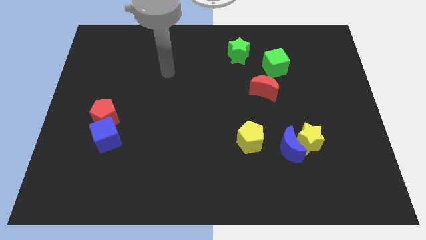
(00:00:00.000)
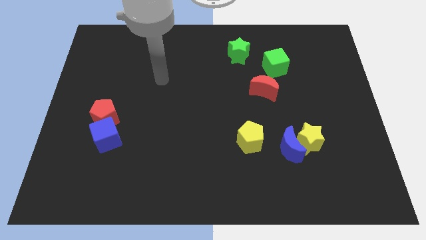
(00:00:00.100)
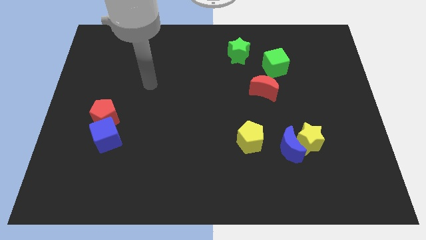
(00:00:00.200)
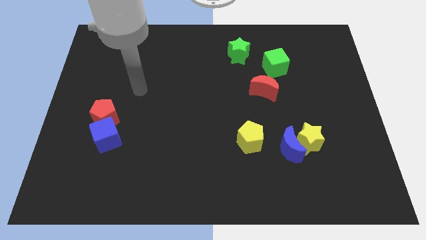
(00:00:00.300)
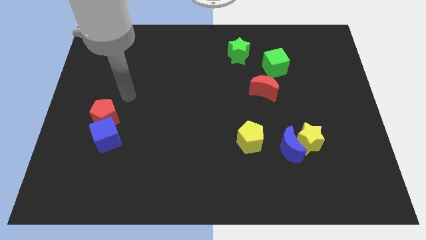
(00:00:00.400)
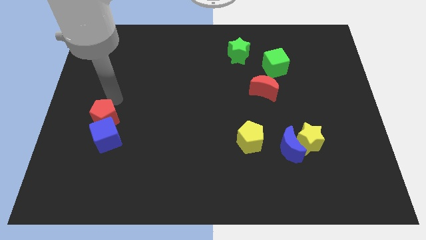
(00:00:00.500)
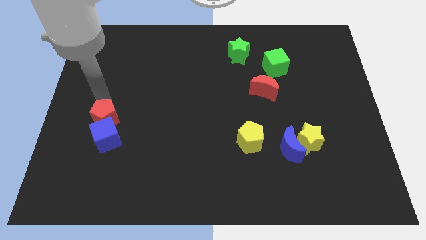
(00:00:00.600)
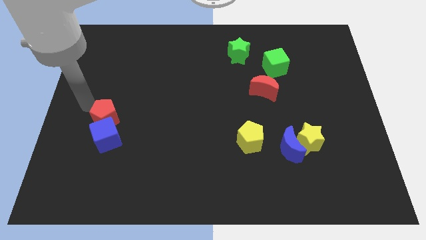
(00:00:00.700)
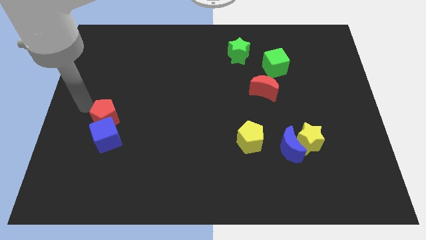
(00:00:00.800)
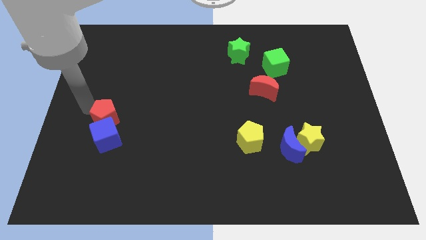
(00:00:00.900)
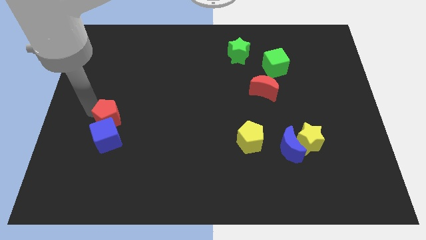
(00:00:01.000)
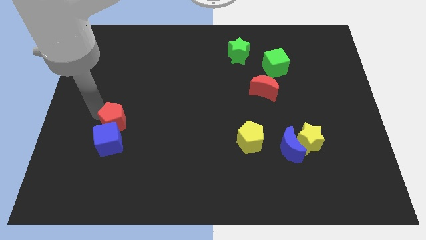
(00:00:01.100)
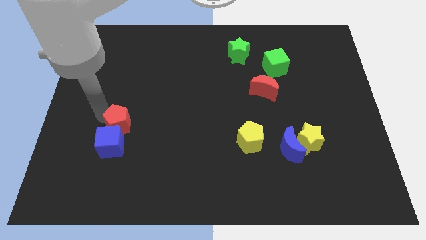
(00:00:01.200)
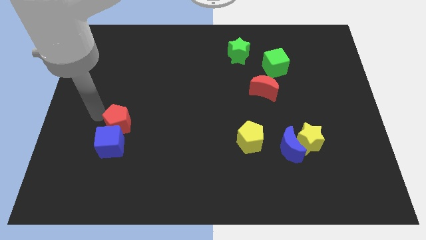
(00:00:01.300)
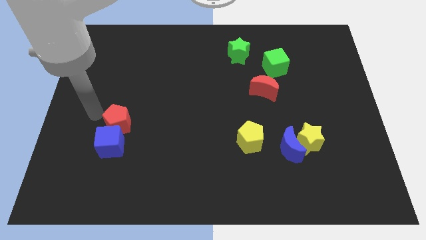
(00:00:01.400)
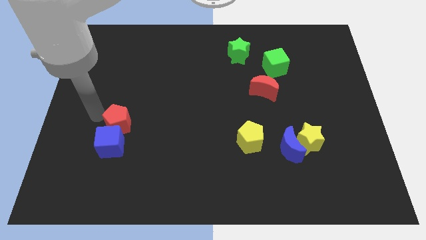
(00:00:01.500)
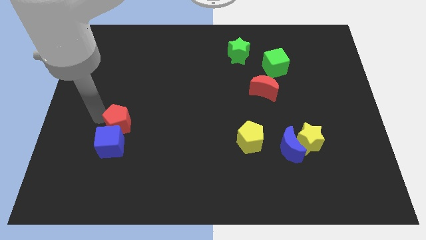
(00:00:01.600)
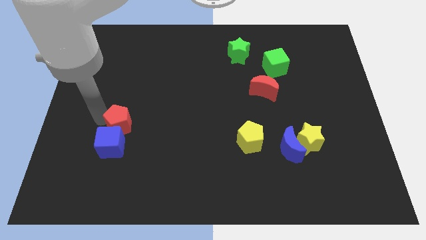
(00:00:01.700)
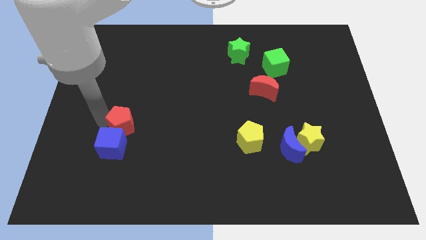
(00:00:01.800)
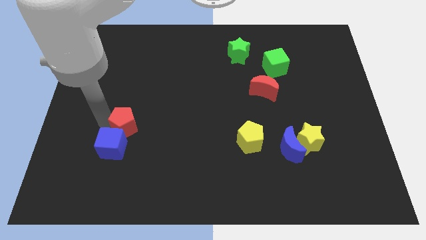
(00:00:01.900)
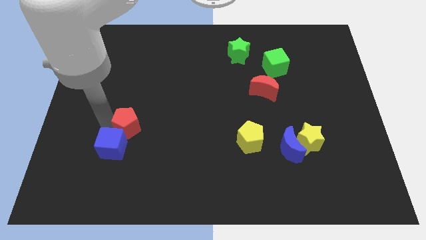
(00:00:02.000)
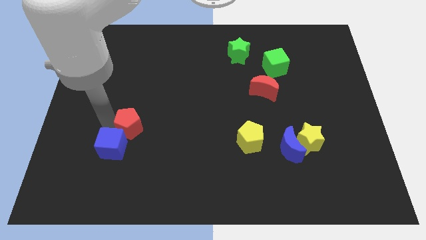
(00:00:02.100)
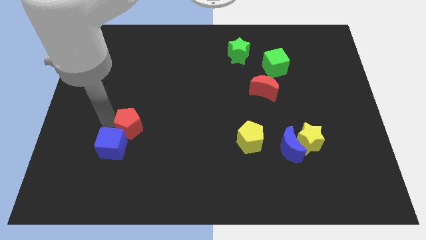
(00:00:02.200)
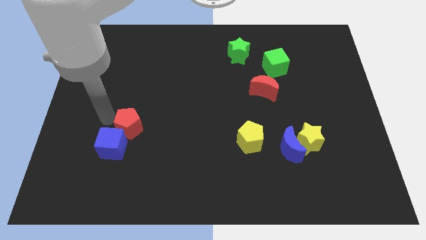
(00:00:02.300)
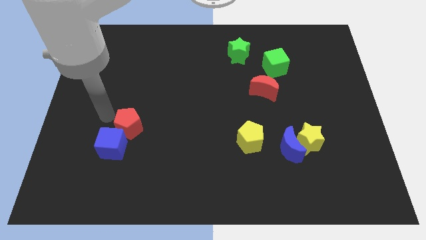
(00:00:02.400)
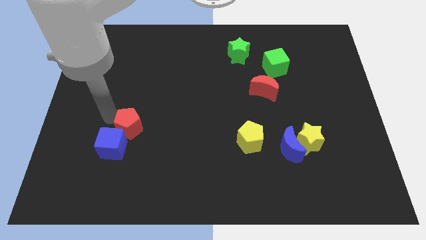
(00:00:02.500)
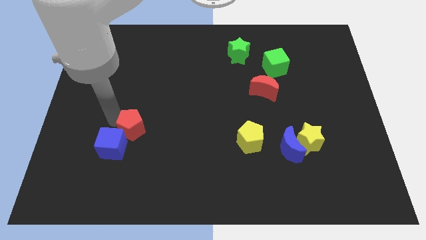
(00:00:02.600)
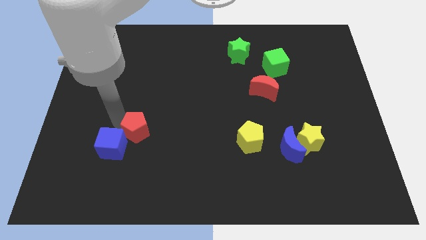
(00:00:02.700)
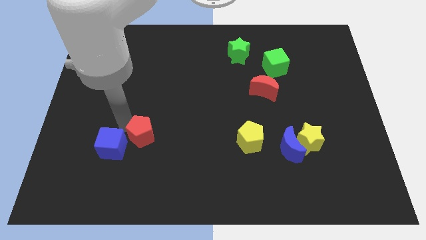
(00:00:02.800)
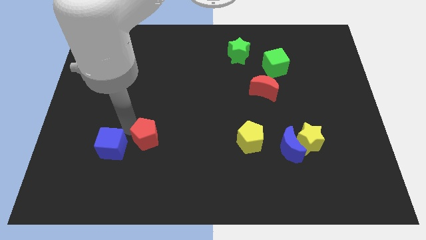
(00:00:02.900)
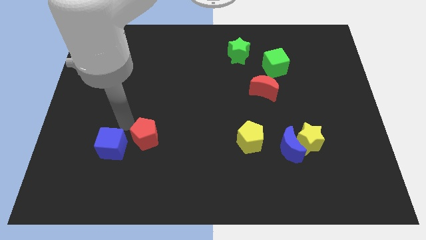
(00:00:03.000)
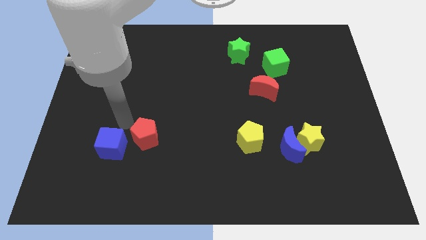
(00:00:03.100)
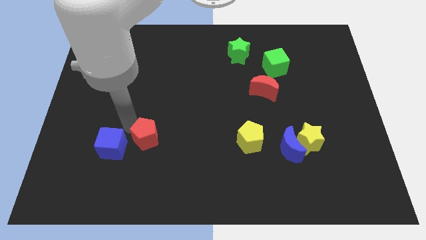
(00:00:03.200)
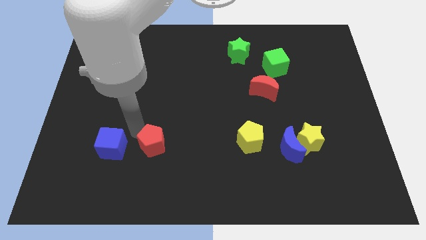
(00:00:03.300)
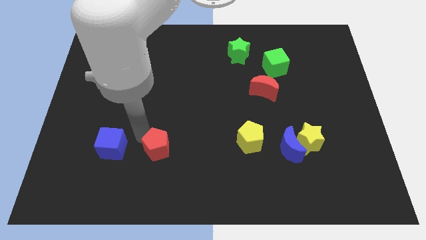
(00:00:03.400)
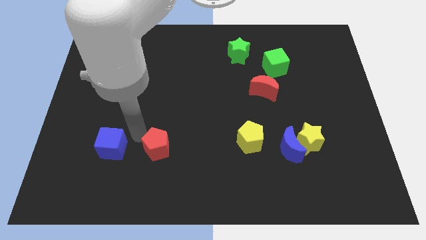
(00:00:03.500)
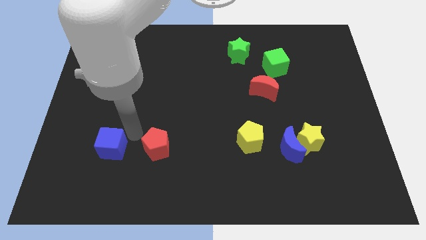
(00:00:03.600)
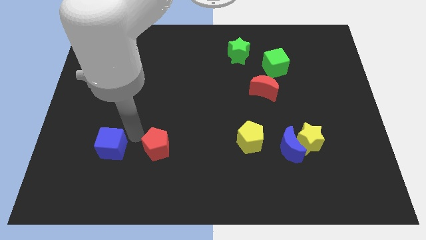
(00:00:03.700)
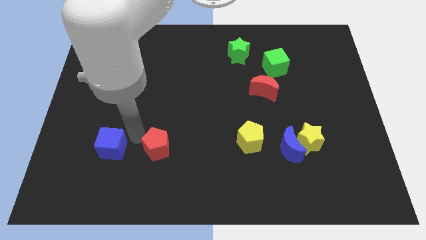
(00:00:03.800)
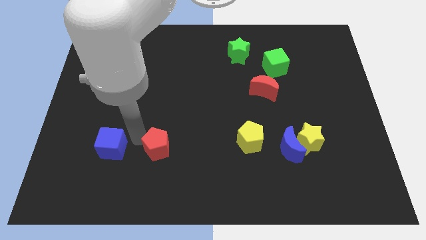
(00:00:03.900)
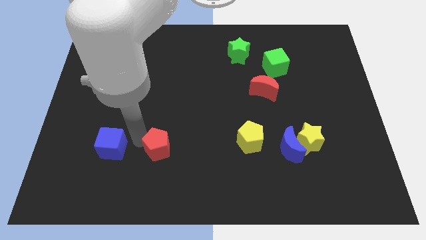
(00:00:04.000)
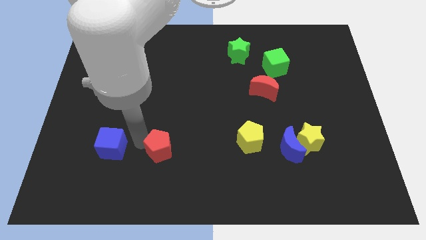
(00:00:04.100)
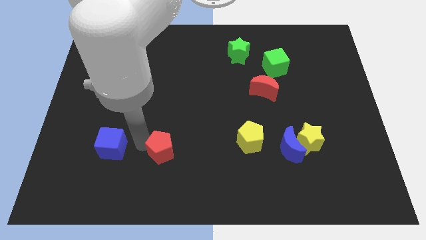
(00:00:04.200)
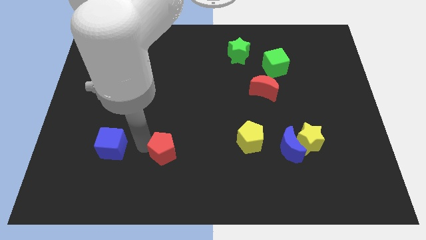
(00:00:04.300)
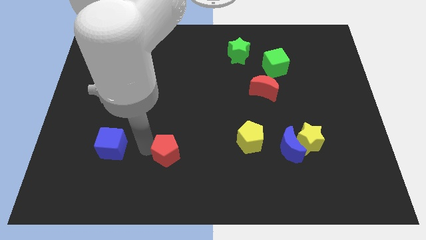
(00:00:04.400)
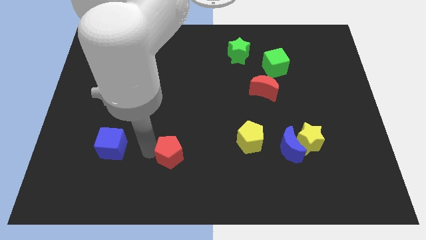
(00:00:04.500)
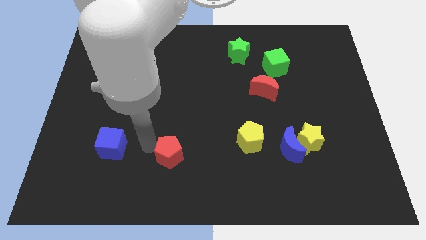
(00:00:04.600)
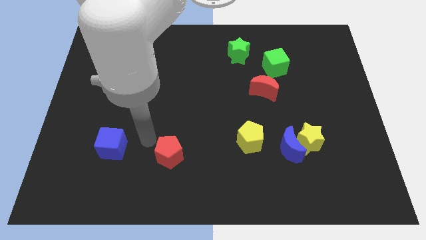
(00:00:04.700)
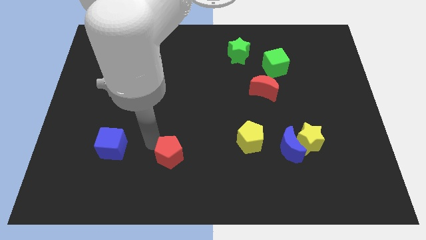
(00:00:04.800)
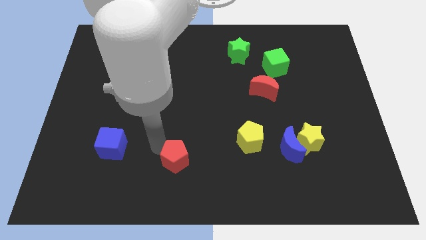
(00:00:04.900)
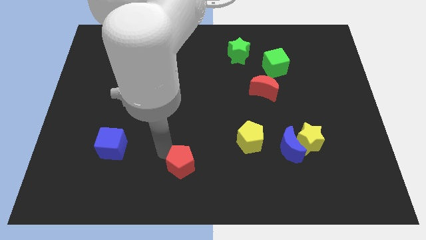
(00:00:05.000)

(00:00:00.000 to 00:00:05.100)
move the red pentagon to the bottom side

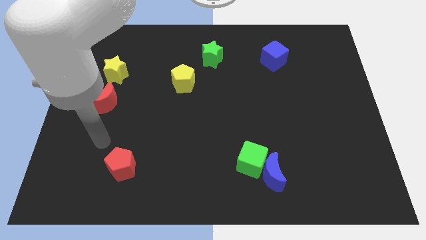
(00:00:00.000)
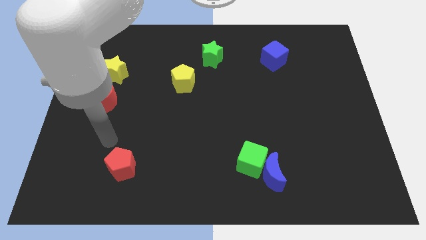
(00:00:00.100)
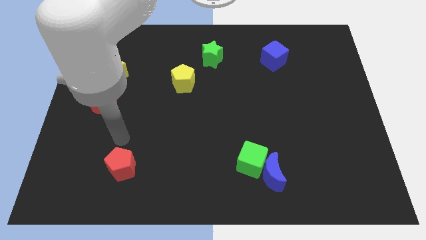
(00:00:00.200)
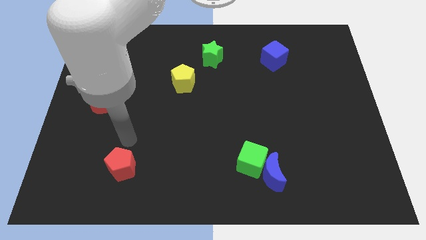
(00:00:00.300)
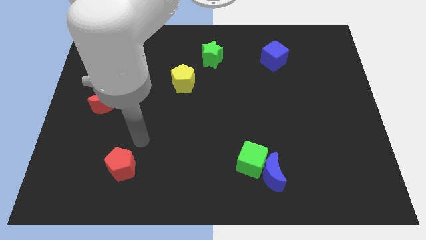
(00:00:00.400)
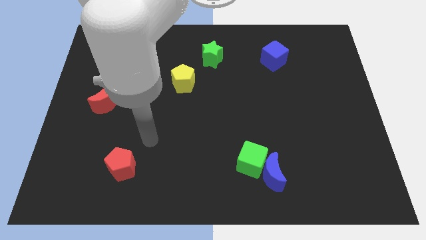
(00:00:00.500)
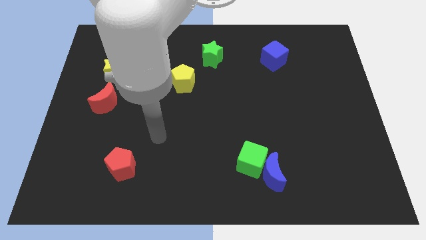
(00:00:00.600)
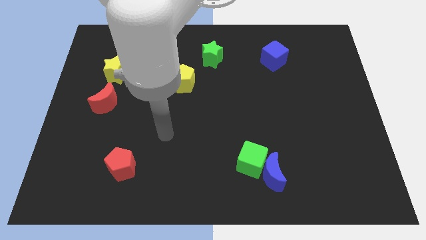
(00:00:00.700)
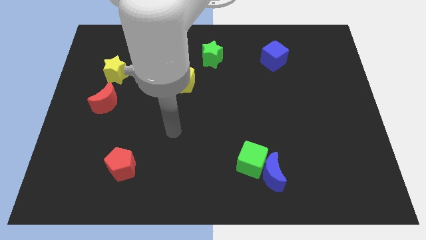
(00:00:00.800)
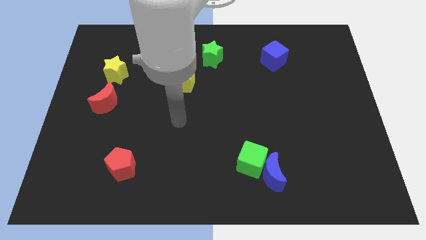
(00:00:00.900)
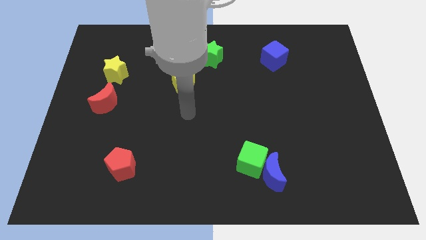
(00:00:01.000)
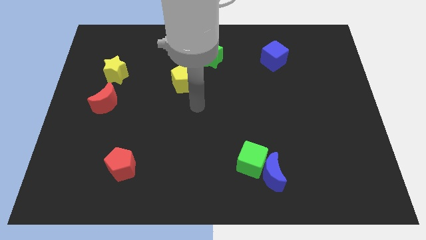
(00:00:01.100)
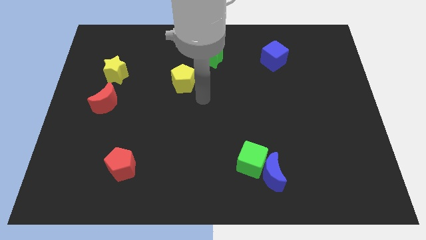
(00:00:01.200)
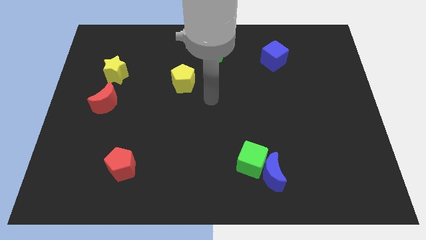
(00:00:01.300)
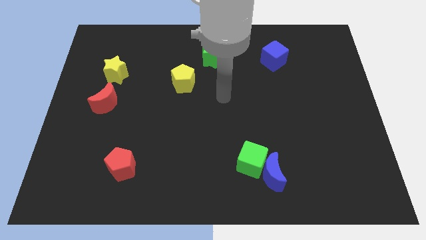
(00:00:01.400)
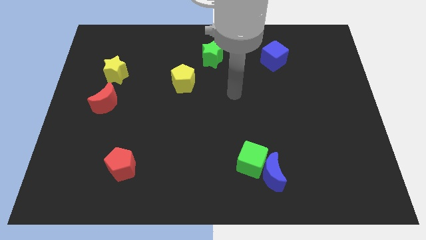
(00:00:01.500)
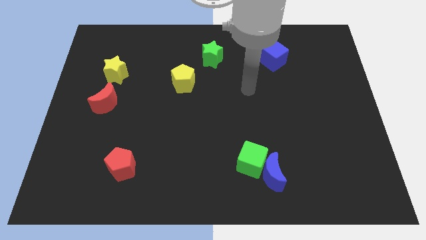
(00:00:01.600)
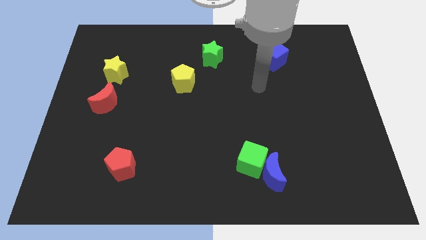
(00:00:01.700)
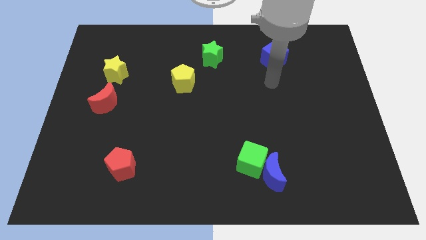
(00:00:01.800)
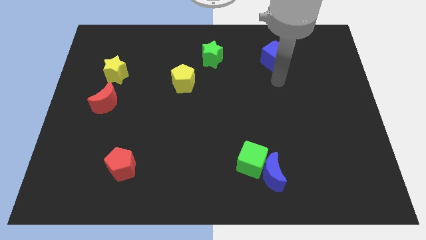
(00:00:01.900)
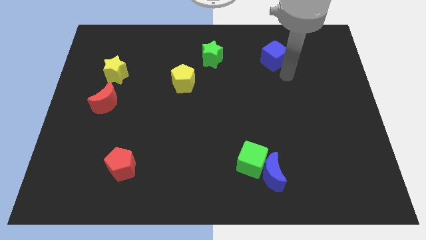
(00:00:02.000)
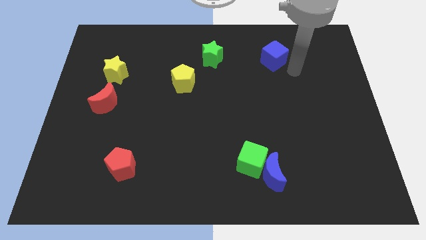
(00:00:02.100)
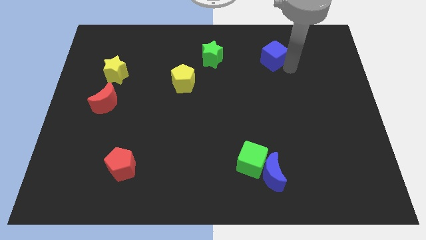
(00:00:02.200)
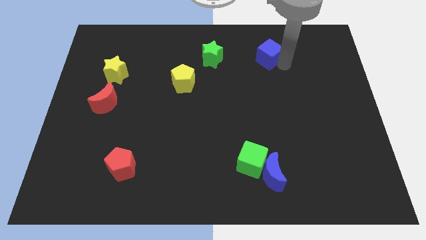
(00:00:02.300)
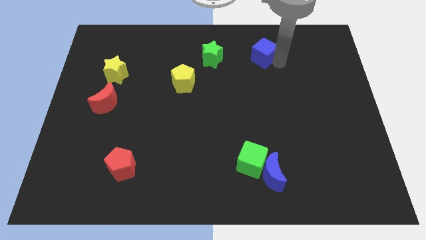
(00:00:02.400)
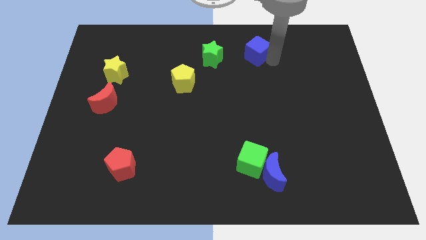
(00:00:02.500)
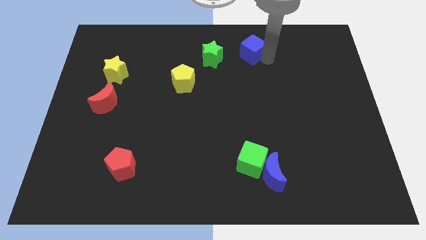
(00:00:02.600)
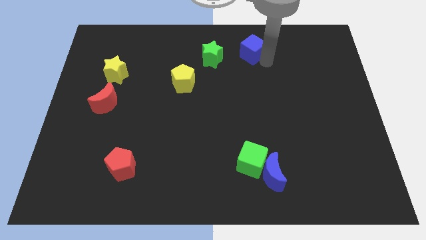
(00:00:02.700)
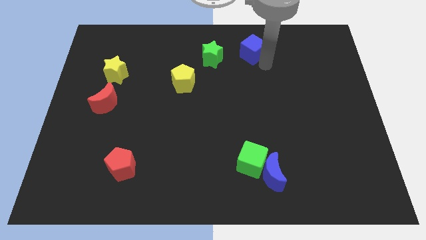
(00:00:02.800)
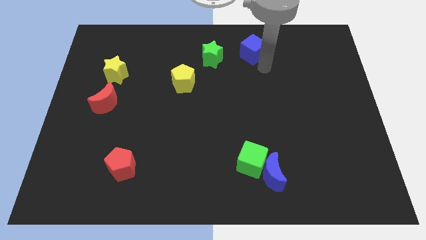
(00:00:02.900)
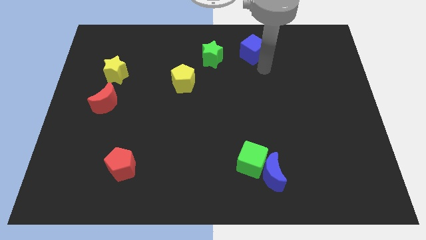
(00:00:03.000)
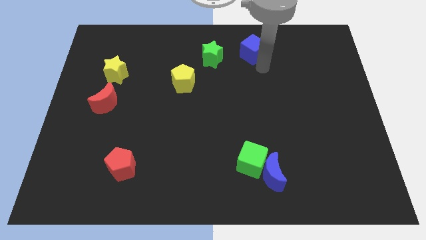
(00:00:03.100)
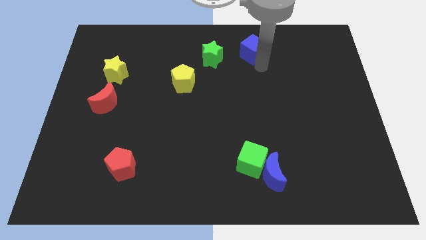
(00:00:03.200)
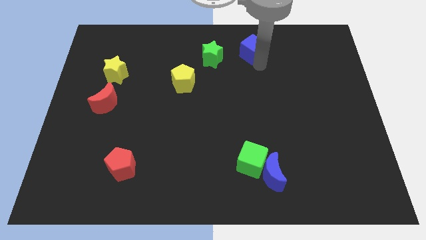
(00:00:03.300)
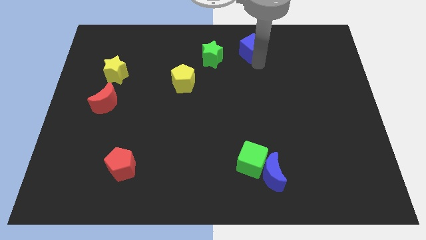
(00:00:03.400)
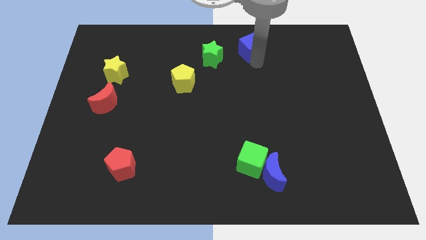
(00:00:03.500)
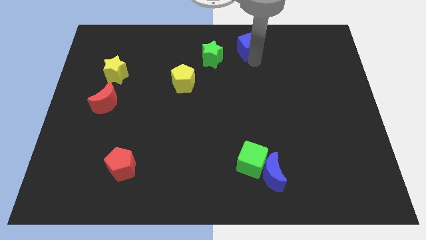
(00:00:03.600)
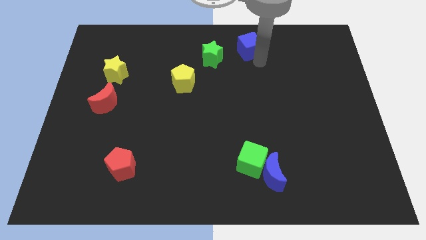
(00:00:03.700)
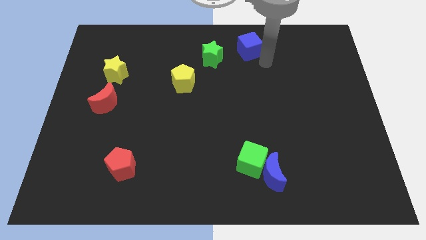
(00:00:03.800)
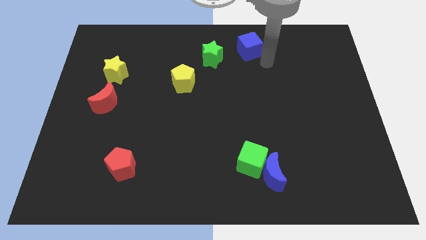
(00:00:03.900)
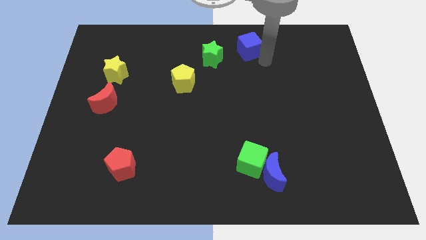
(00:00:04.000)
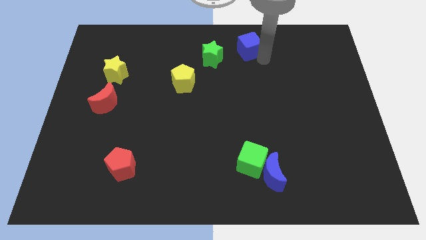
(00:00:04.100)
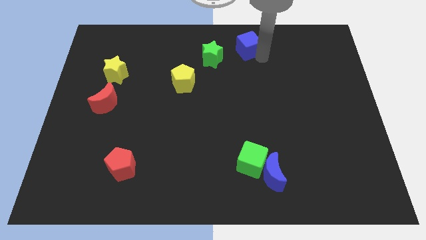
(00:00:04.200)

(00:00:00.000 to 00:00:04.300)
slide the blue cube to the towards your base
